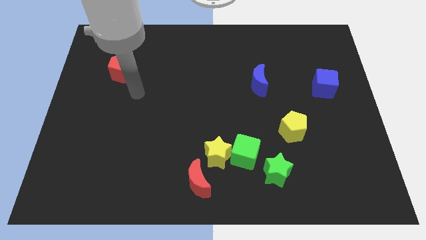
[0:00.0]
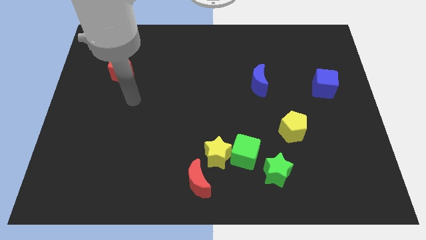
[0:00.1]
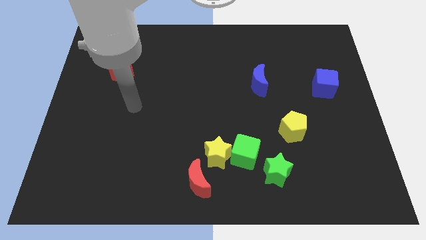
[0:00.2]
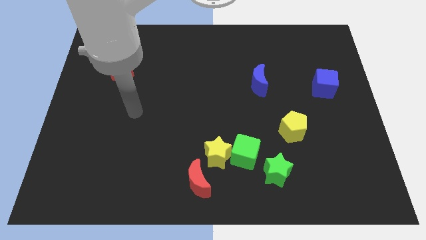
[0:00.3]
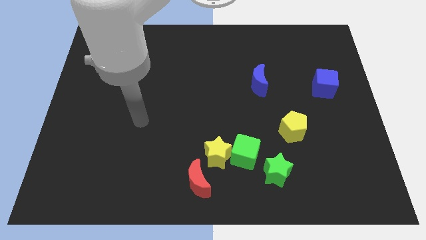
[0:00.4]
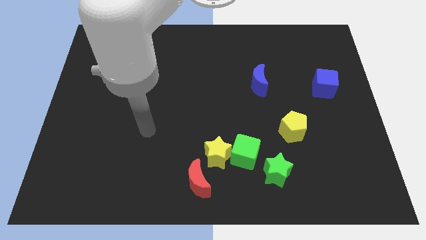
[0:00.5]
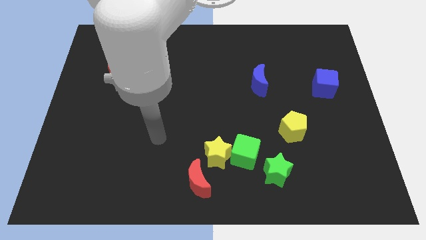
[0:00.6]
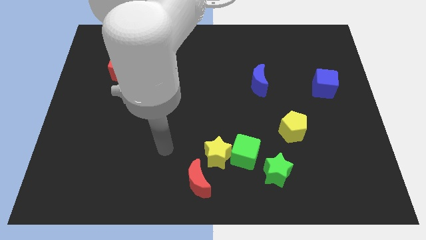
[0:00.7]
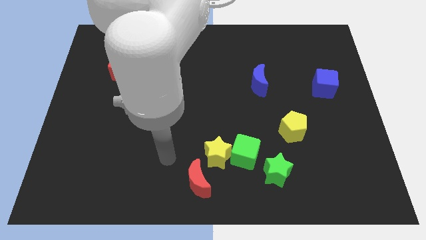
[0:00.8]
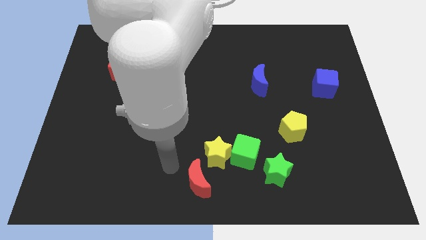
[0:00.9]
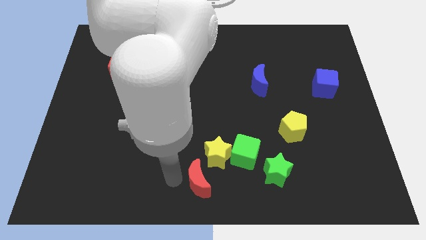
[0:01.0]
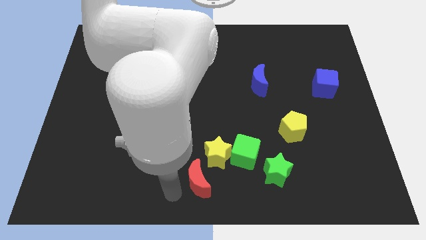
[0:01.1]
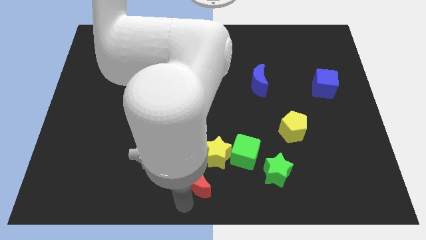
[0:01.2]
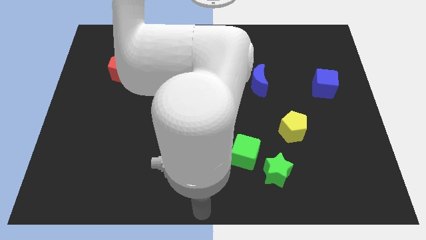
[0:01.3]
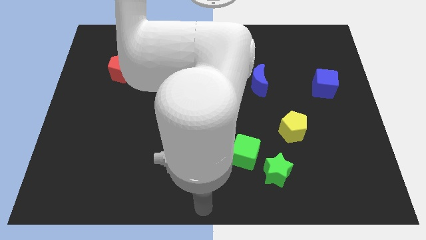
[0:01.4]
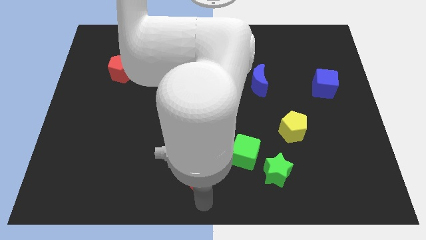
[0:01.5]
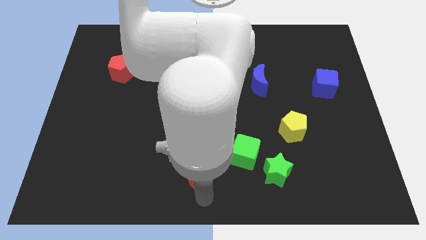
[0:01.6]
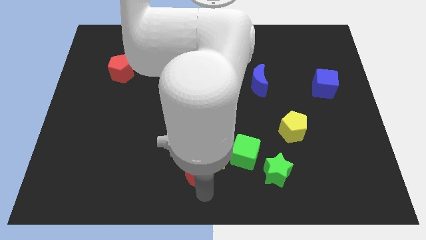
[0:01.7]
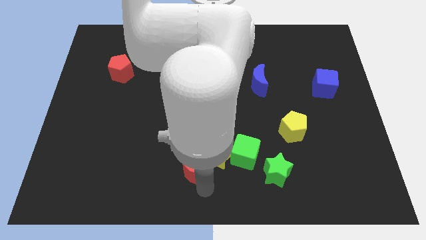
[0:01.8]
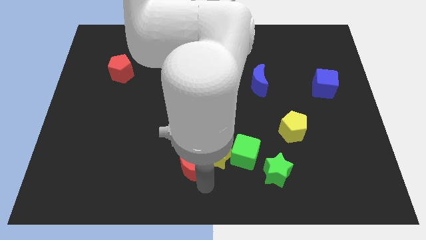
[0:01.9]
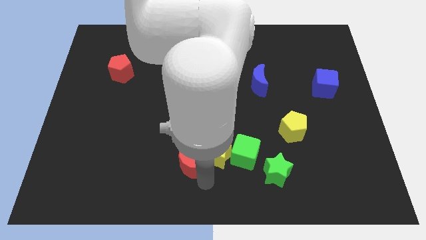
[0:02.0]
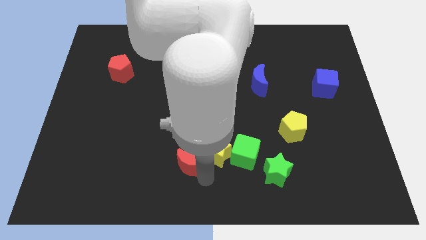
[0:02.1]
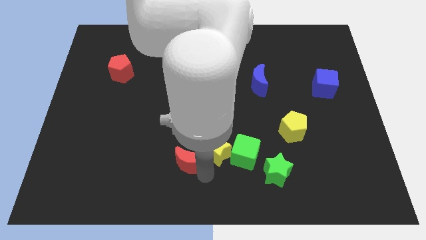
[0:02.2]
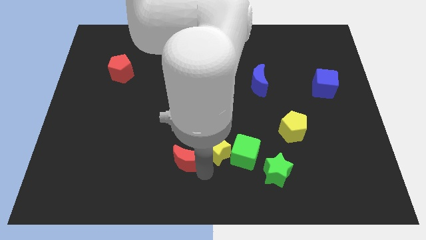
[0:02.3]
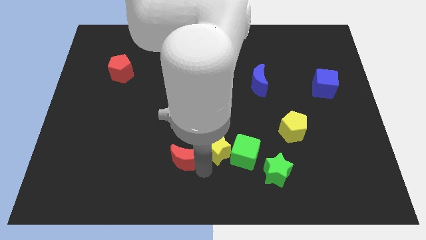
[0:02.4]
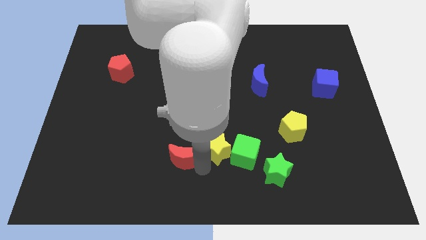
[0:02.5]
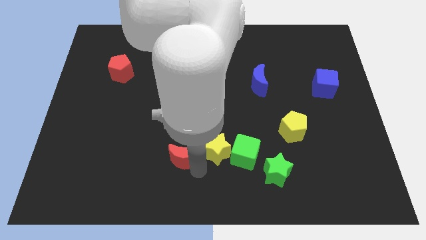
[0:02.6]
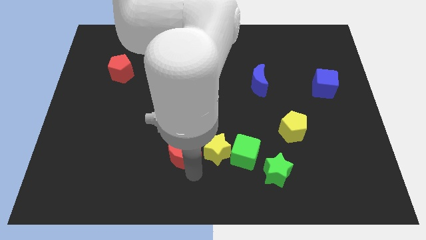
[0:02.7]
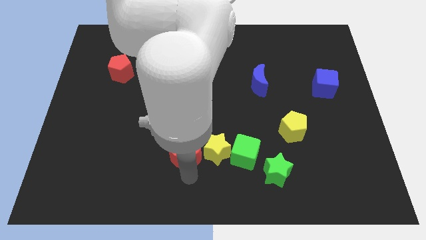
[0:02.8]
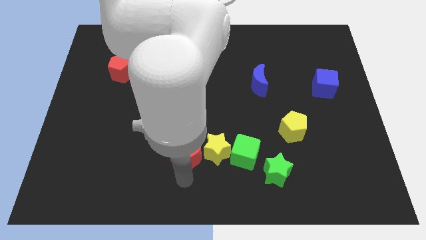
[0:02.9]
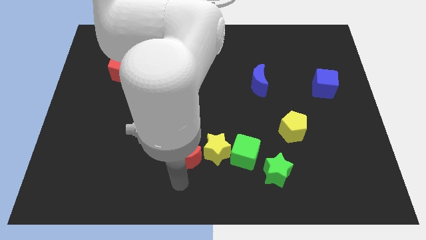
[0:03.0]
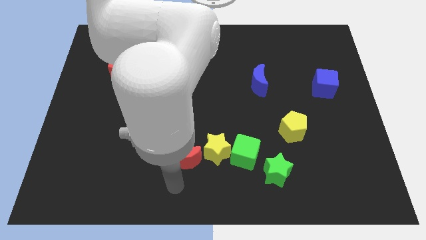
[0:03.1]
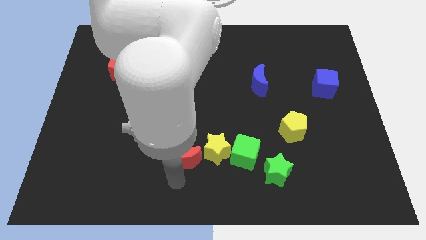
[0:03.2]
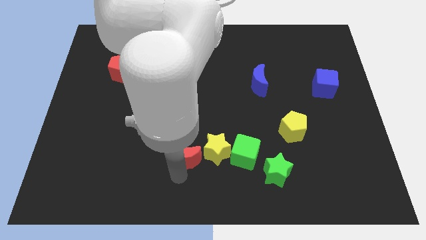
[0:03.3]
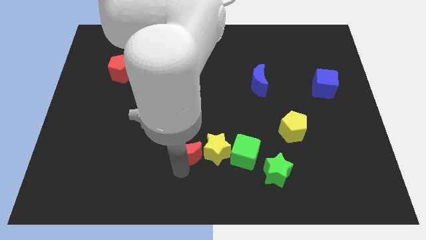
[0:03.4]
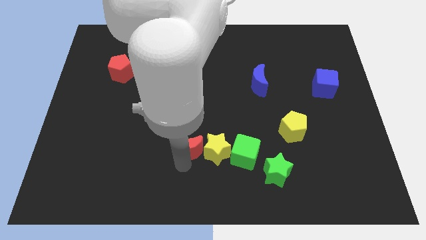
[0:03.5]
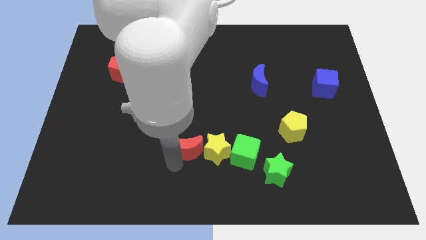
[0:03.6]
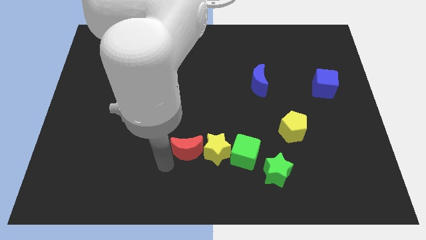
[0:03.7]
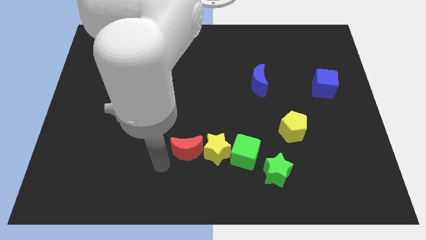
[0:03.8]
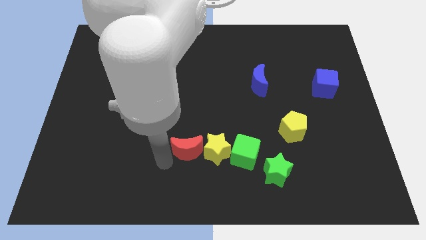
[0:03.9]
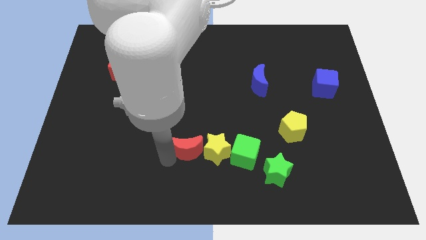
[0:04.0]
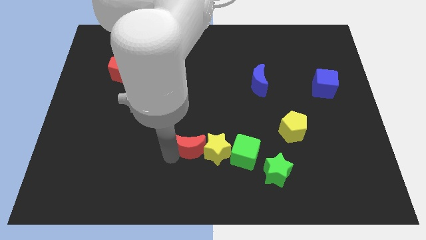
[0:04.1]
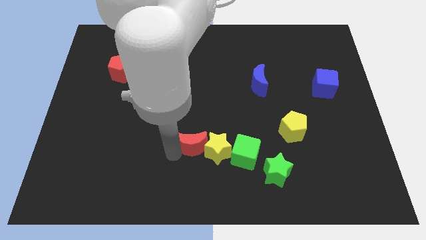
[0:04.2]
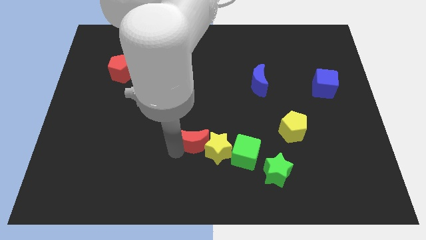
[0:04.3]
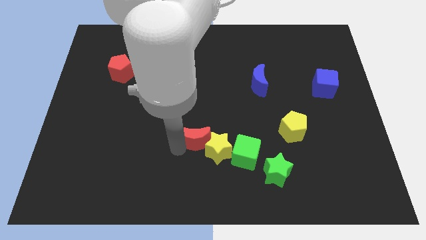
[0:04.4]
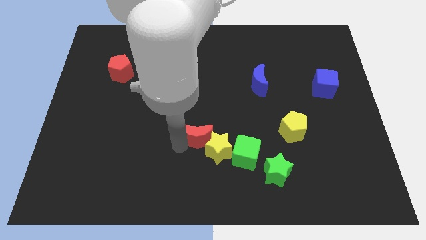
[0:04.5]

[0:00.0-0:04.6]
put the red moon diagonally up and to the left of the green cube

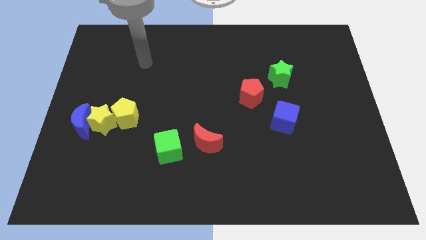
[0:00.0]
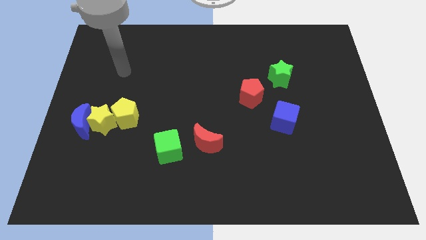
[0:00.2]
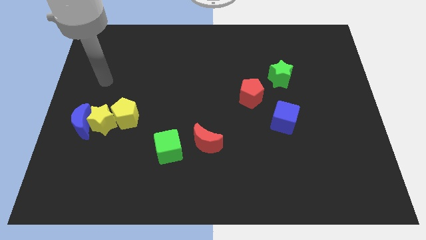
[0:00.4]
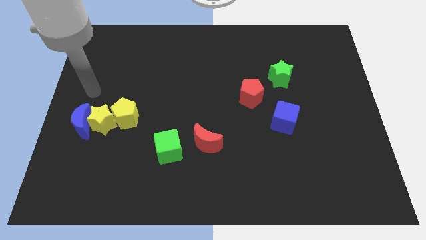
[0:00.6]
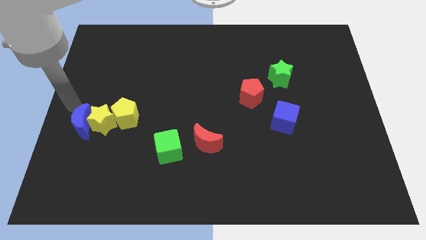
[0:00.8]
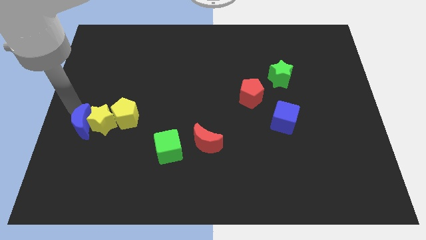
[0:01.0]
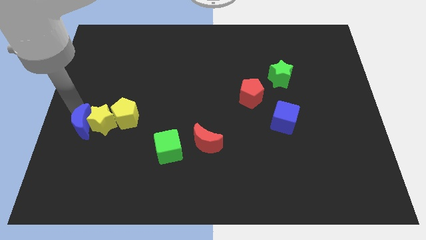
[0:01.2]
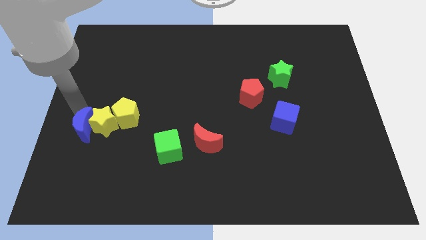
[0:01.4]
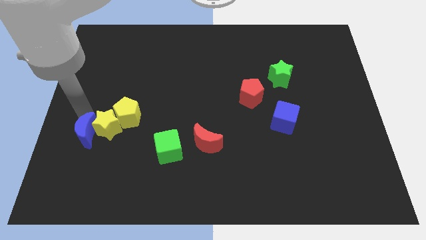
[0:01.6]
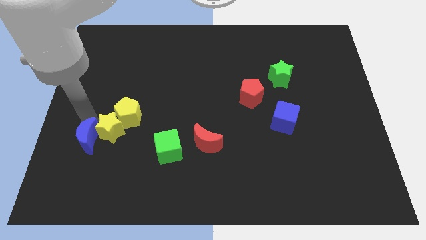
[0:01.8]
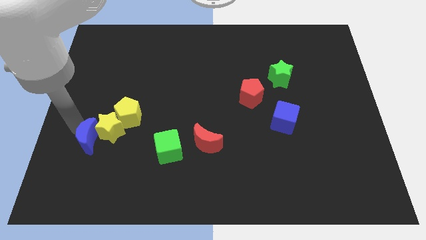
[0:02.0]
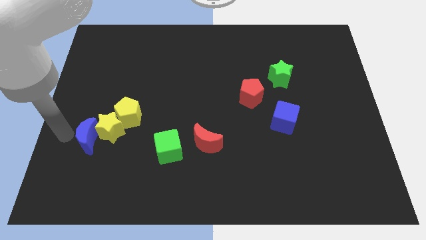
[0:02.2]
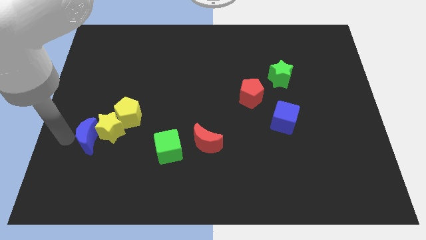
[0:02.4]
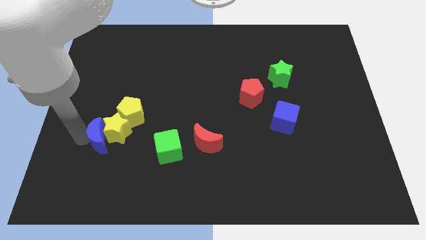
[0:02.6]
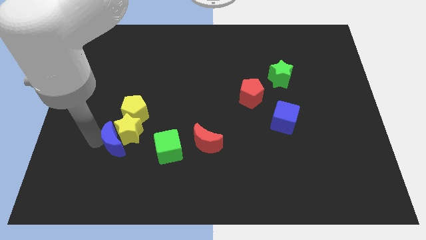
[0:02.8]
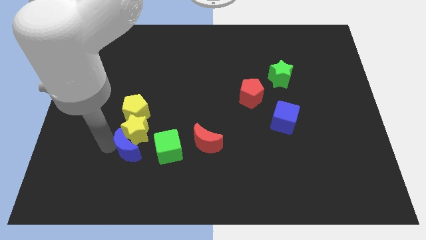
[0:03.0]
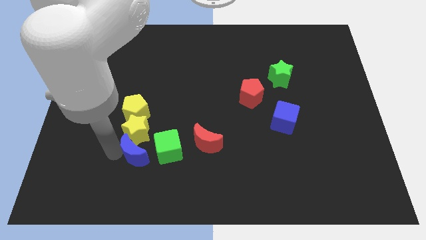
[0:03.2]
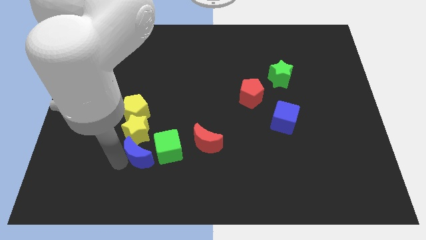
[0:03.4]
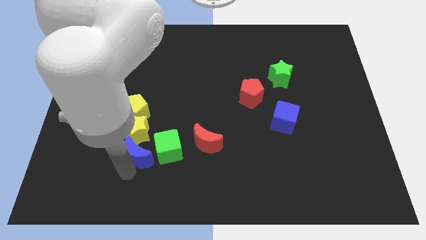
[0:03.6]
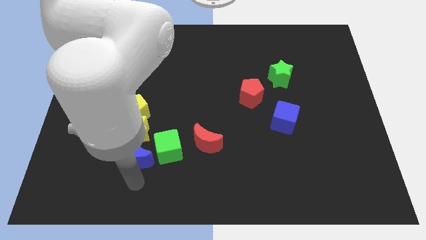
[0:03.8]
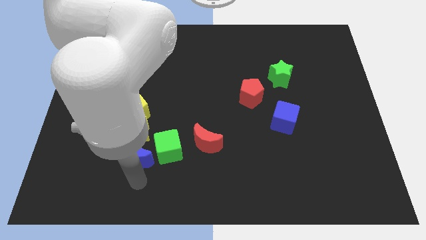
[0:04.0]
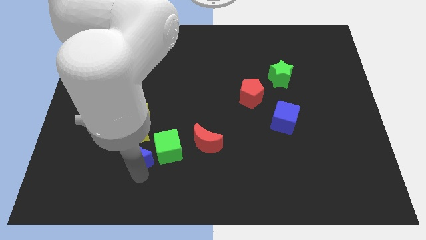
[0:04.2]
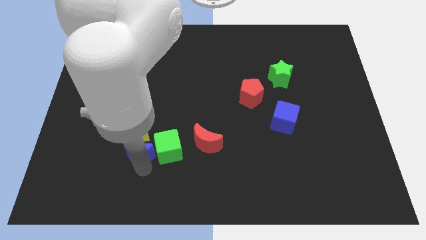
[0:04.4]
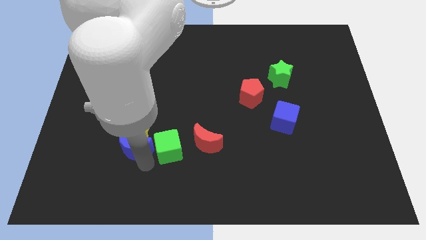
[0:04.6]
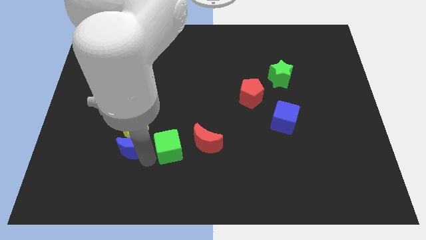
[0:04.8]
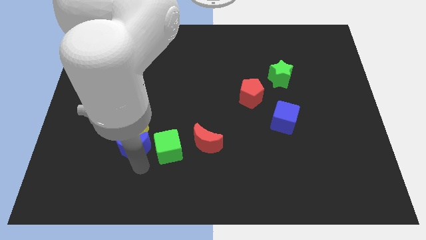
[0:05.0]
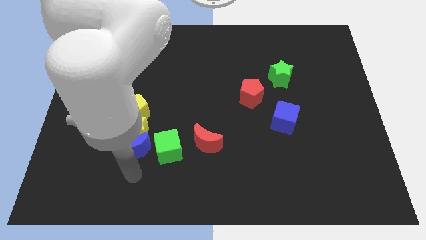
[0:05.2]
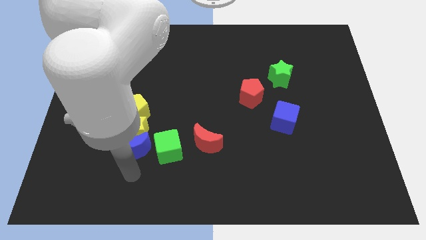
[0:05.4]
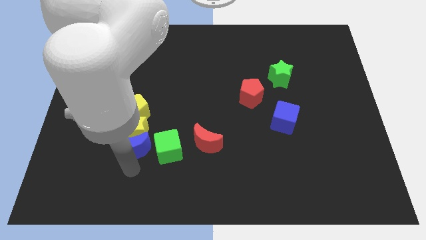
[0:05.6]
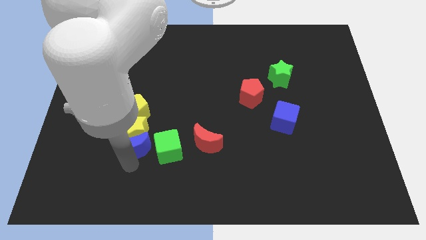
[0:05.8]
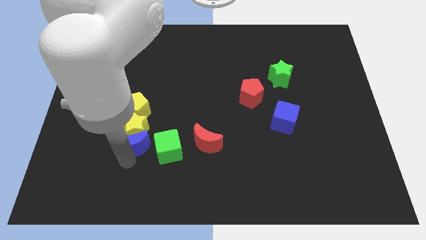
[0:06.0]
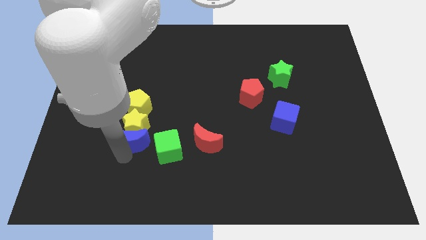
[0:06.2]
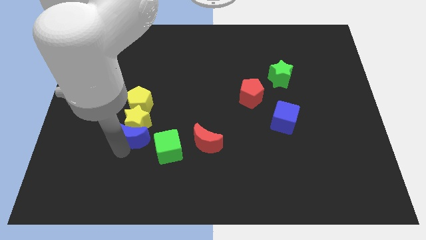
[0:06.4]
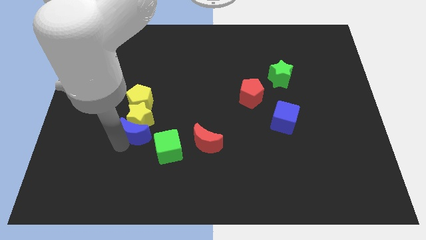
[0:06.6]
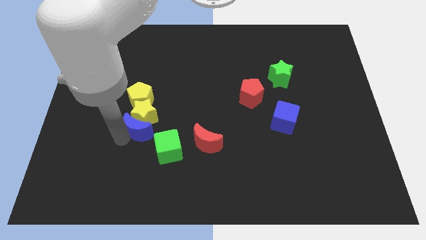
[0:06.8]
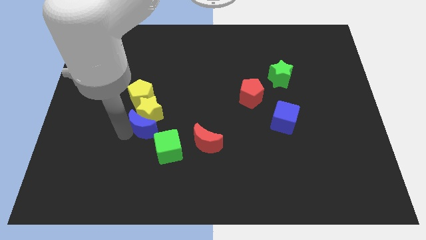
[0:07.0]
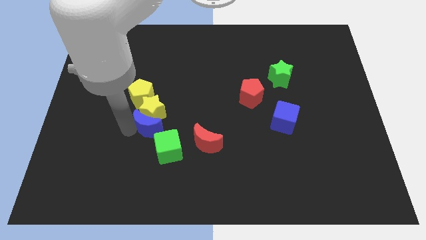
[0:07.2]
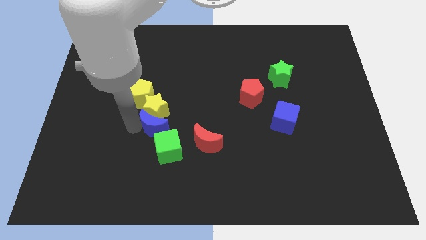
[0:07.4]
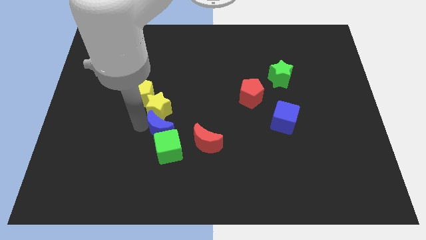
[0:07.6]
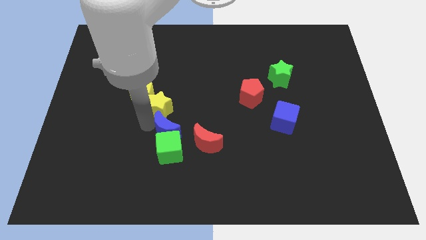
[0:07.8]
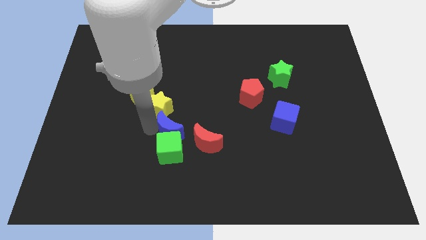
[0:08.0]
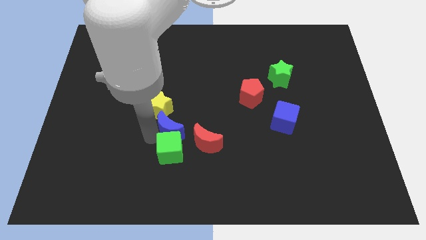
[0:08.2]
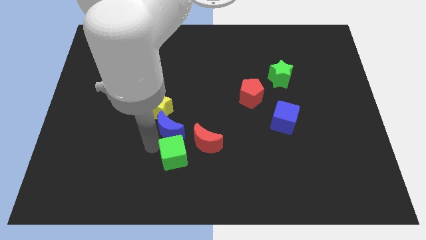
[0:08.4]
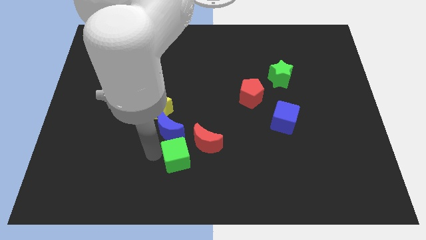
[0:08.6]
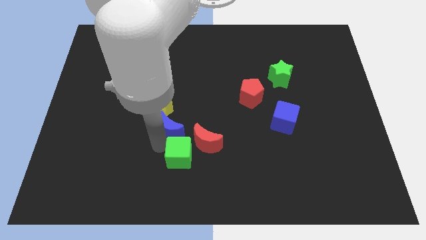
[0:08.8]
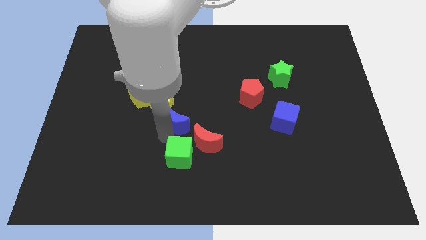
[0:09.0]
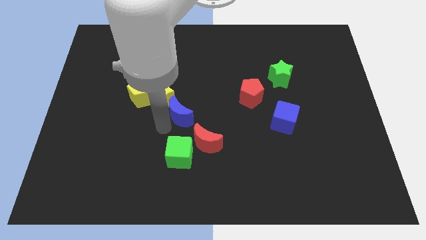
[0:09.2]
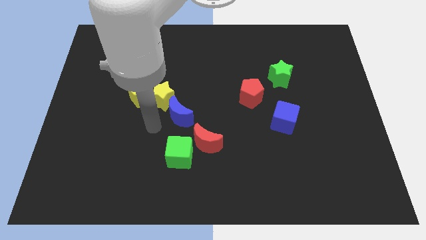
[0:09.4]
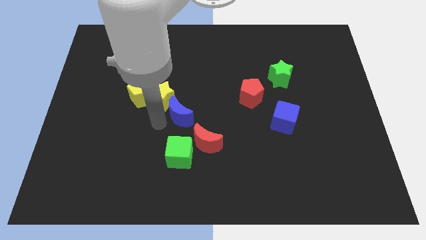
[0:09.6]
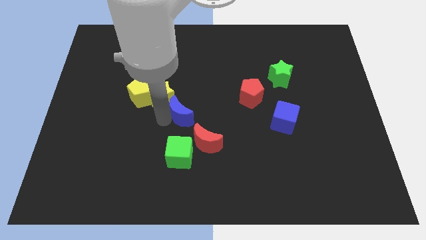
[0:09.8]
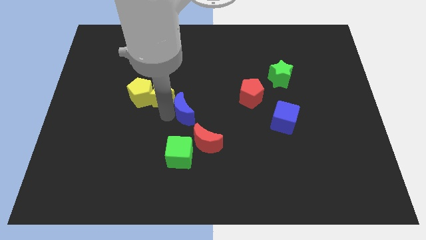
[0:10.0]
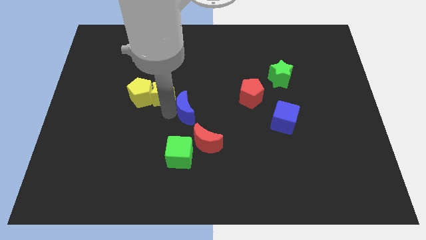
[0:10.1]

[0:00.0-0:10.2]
slide the blue moon to the top of the red moon
